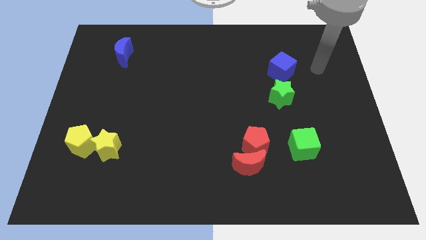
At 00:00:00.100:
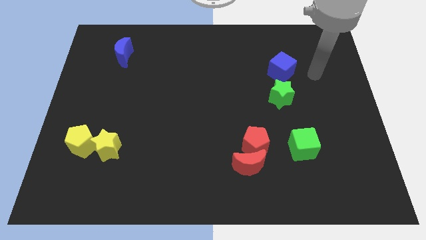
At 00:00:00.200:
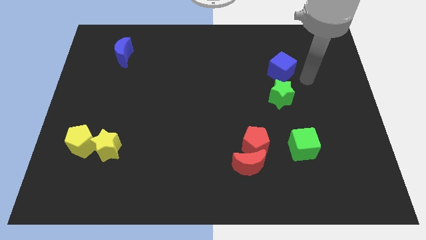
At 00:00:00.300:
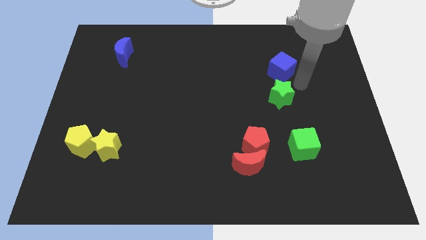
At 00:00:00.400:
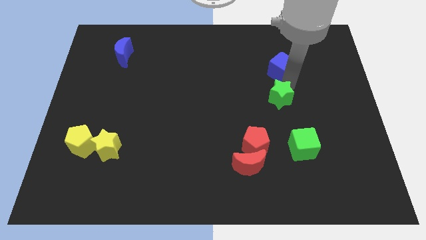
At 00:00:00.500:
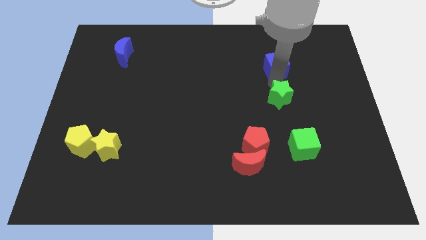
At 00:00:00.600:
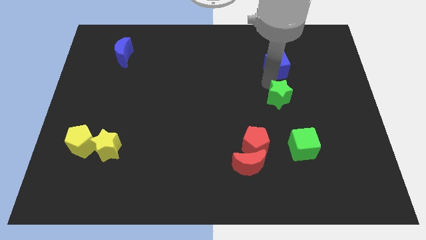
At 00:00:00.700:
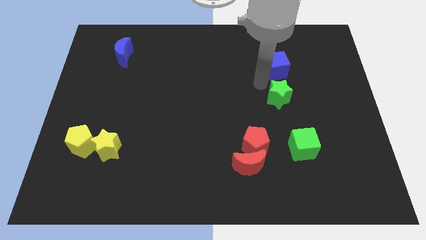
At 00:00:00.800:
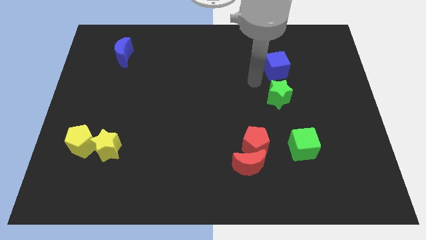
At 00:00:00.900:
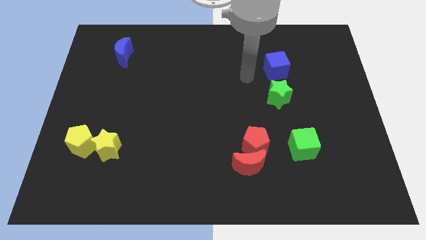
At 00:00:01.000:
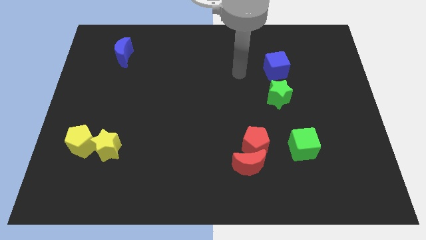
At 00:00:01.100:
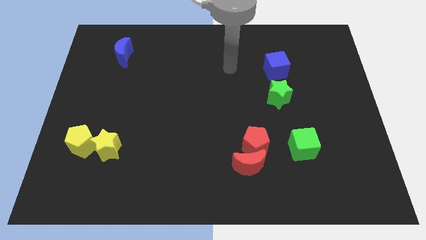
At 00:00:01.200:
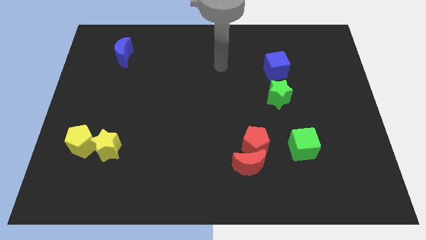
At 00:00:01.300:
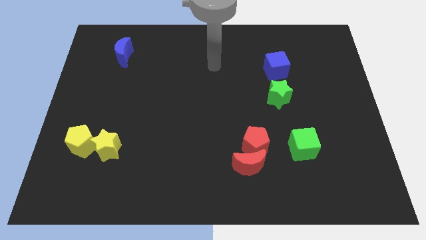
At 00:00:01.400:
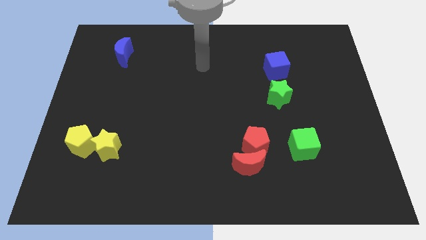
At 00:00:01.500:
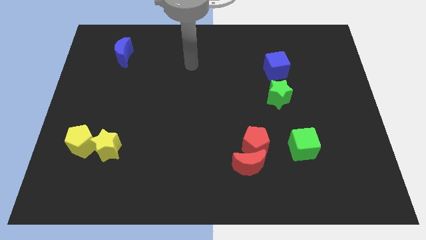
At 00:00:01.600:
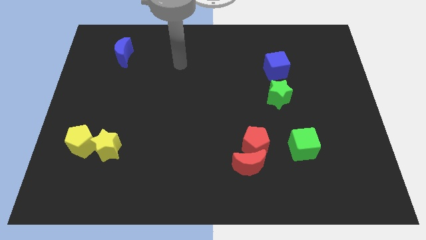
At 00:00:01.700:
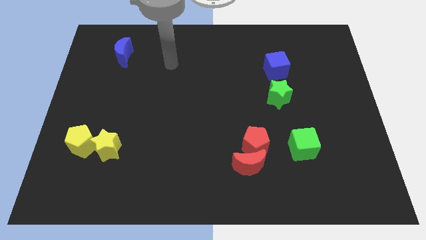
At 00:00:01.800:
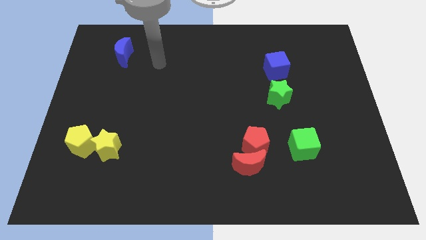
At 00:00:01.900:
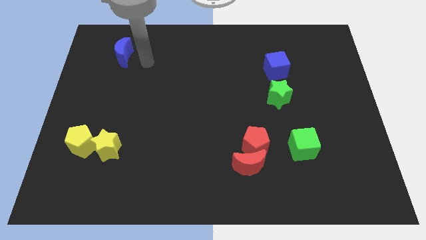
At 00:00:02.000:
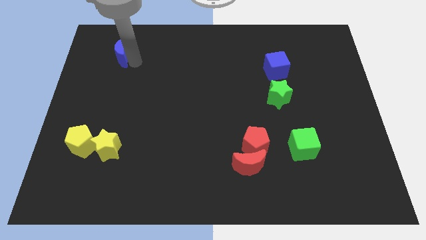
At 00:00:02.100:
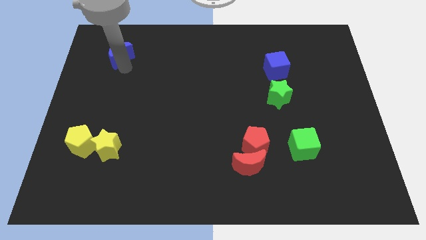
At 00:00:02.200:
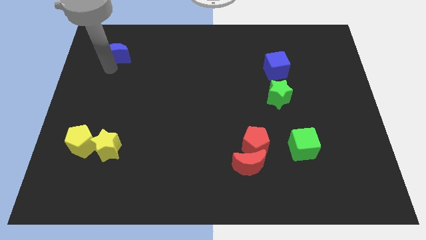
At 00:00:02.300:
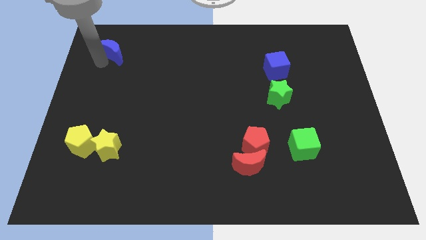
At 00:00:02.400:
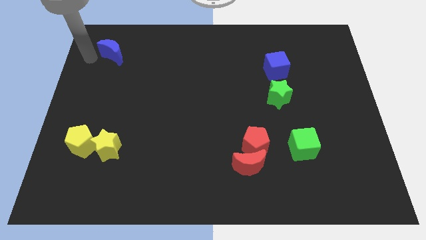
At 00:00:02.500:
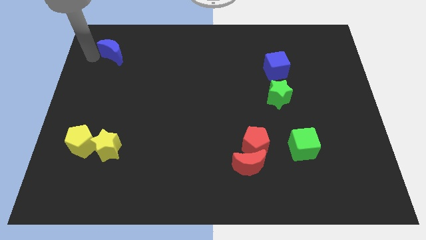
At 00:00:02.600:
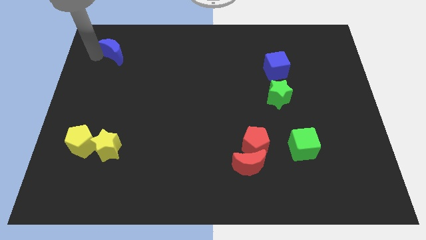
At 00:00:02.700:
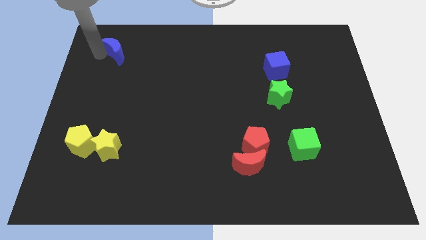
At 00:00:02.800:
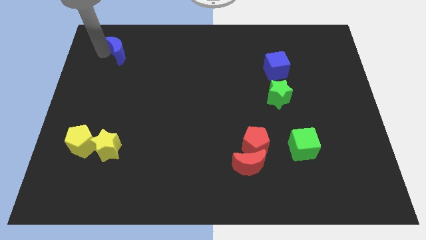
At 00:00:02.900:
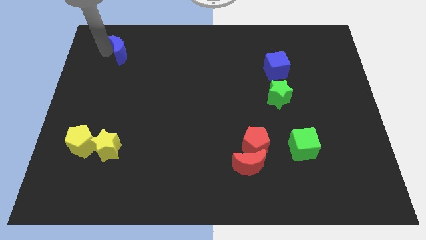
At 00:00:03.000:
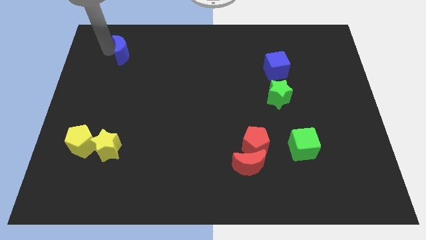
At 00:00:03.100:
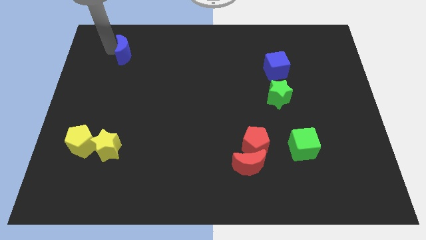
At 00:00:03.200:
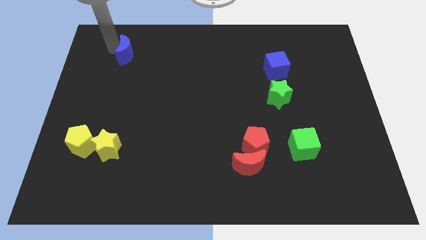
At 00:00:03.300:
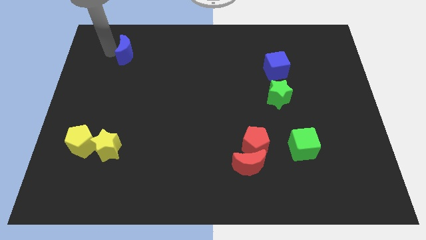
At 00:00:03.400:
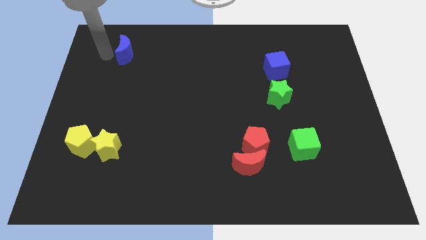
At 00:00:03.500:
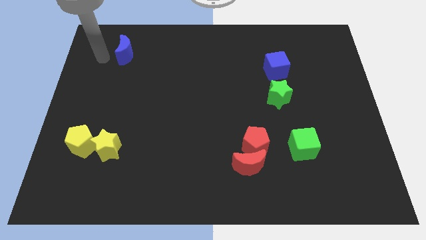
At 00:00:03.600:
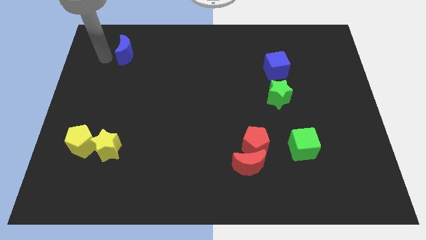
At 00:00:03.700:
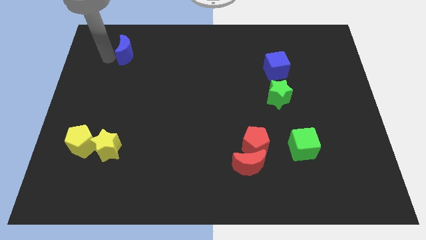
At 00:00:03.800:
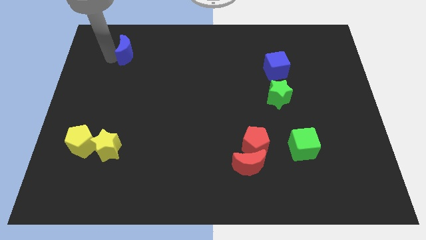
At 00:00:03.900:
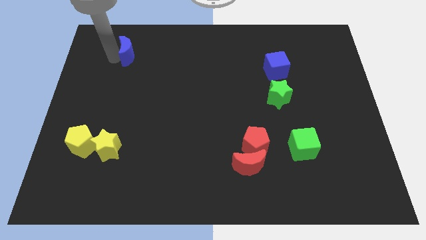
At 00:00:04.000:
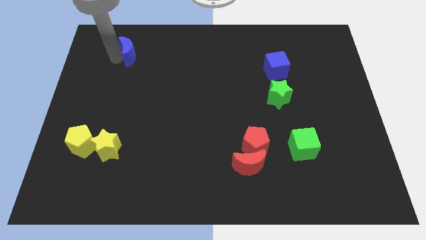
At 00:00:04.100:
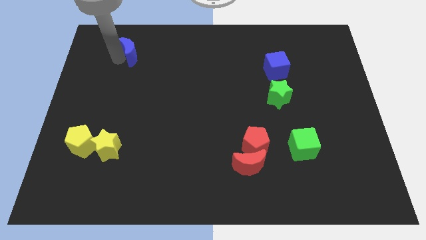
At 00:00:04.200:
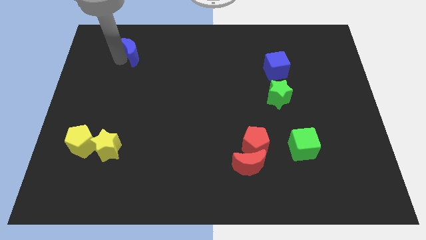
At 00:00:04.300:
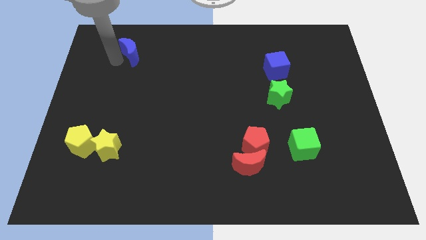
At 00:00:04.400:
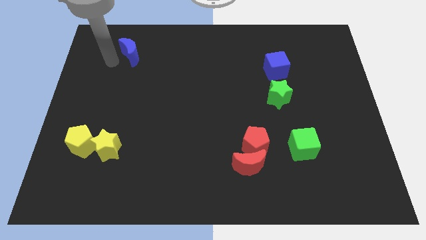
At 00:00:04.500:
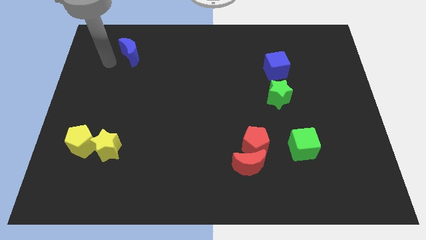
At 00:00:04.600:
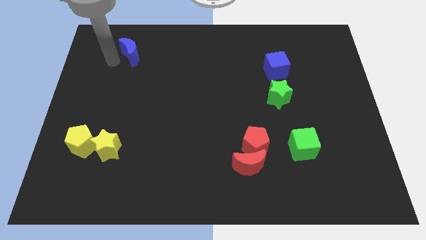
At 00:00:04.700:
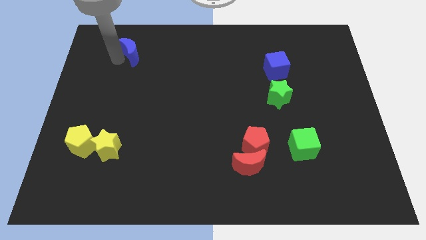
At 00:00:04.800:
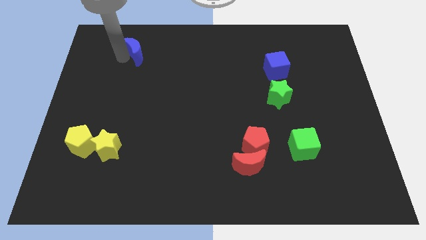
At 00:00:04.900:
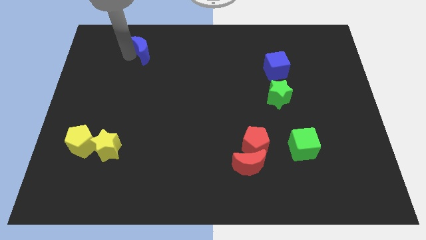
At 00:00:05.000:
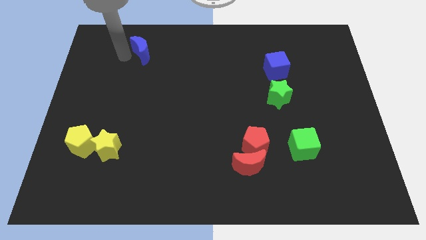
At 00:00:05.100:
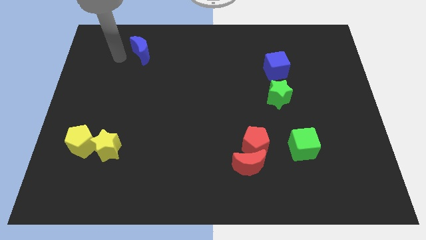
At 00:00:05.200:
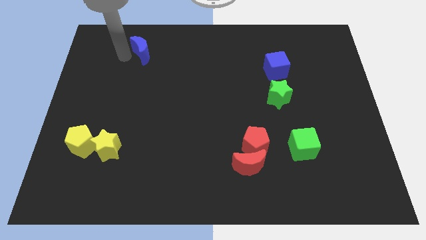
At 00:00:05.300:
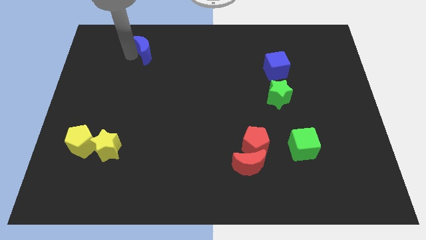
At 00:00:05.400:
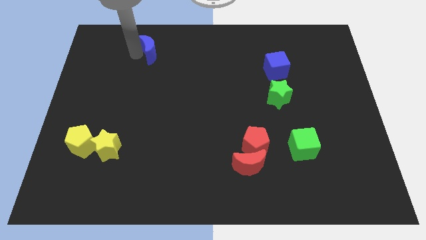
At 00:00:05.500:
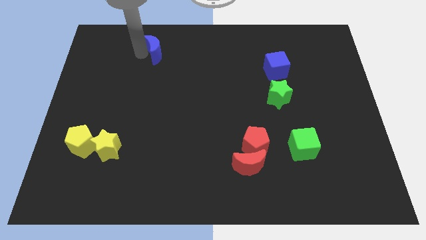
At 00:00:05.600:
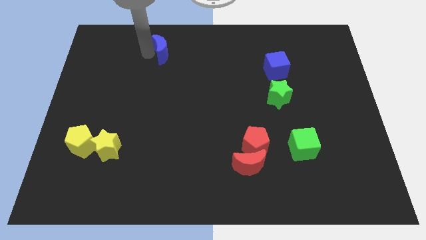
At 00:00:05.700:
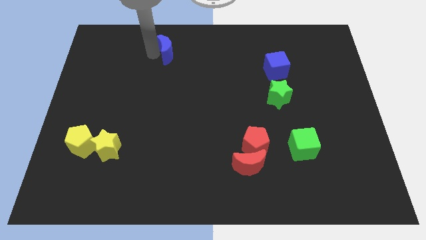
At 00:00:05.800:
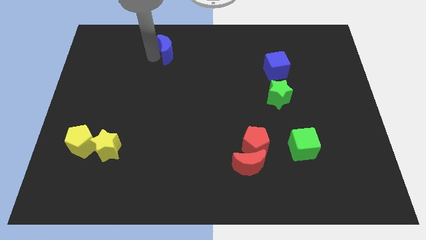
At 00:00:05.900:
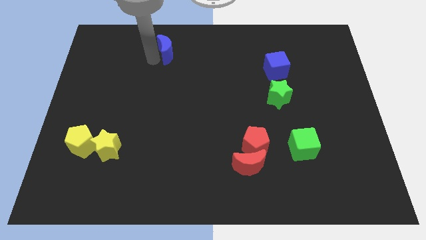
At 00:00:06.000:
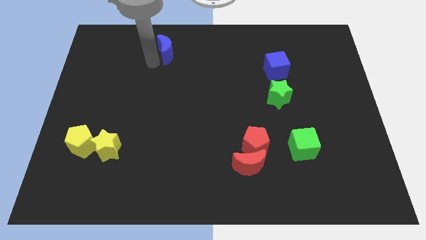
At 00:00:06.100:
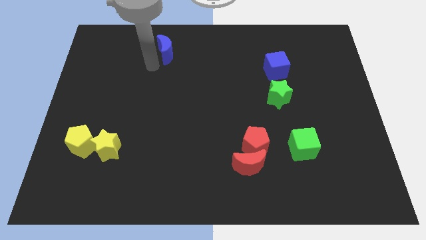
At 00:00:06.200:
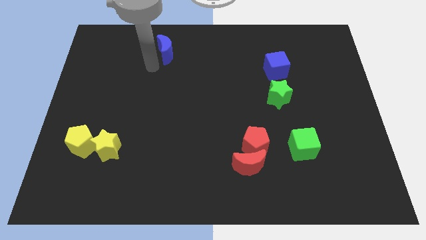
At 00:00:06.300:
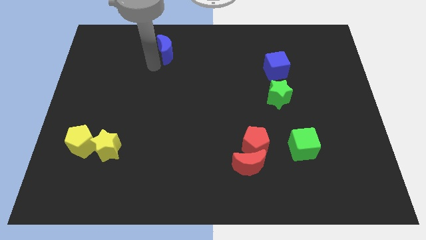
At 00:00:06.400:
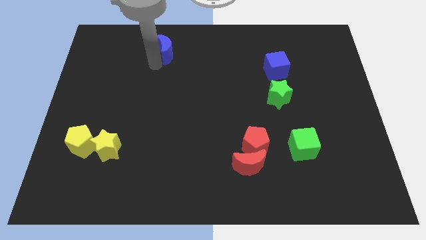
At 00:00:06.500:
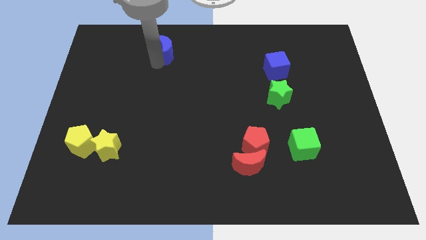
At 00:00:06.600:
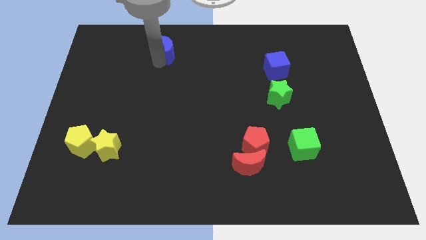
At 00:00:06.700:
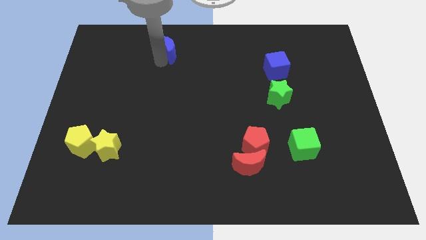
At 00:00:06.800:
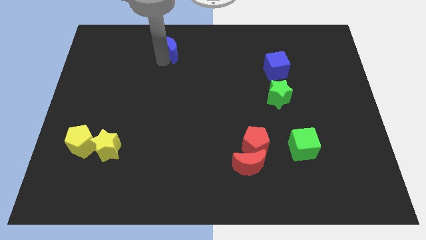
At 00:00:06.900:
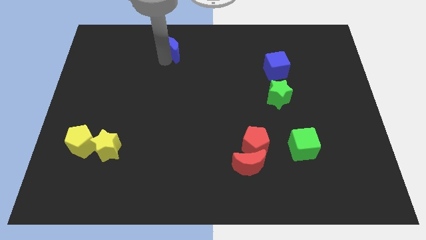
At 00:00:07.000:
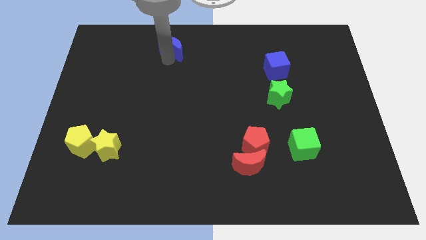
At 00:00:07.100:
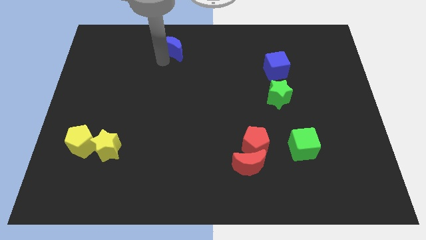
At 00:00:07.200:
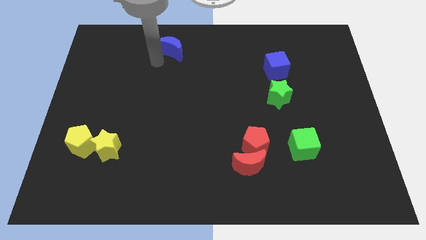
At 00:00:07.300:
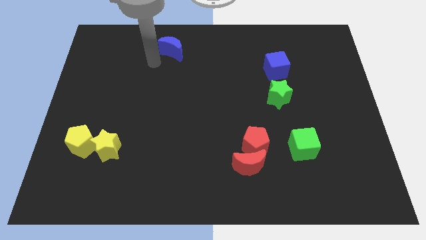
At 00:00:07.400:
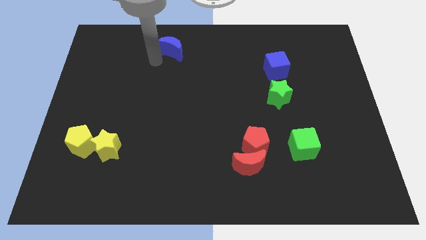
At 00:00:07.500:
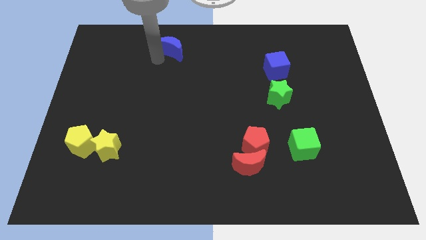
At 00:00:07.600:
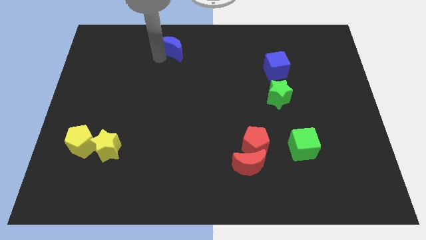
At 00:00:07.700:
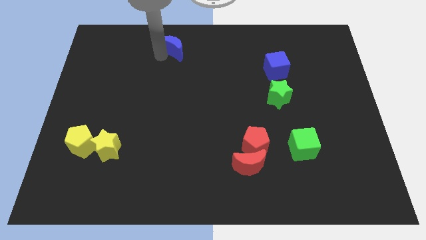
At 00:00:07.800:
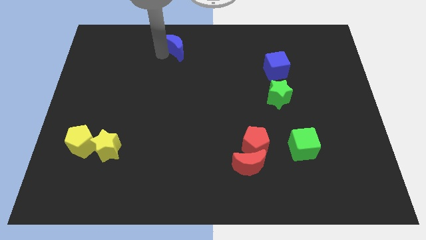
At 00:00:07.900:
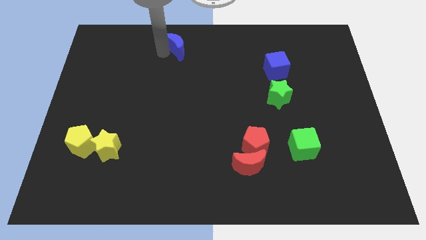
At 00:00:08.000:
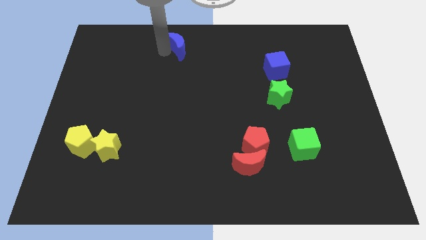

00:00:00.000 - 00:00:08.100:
move the blue moon to the top side

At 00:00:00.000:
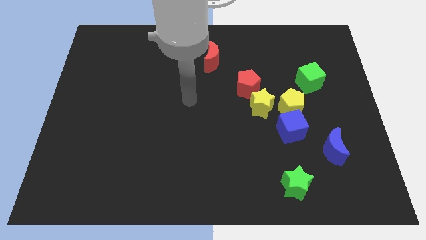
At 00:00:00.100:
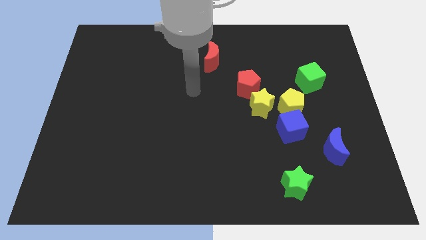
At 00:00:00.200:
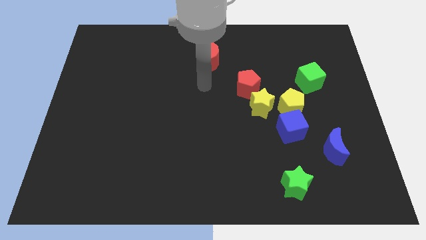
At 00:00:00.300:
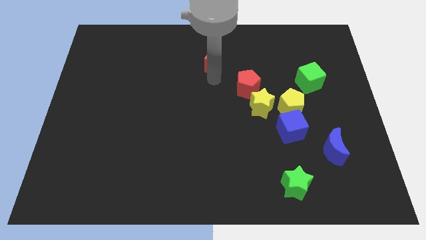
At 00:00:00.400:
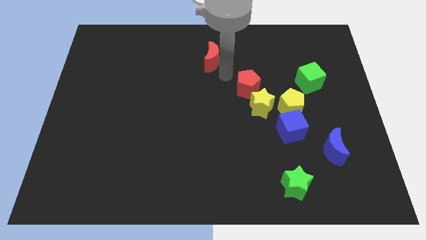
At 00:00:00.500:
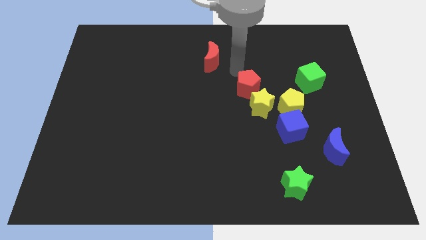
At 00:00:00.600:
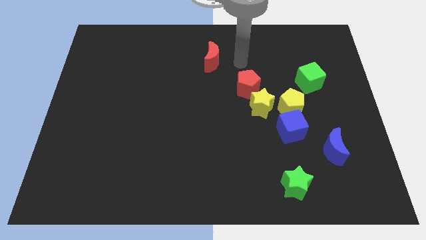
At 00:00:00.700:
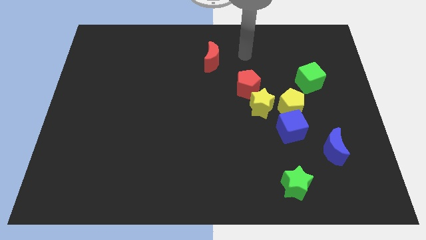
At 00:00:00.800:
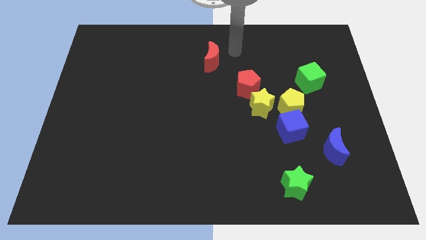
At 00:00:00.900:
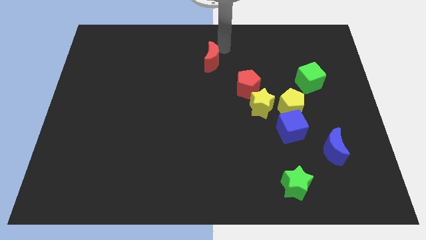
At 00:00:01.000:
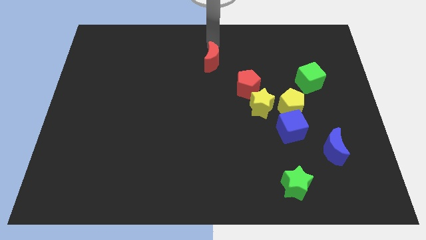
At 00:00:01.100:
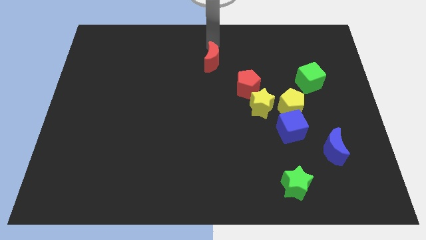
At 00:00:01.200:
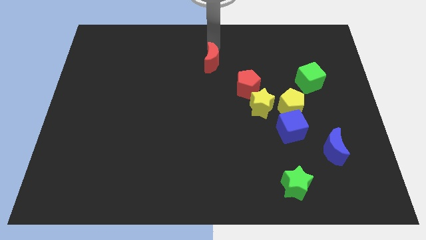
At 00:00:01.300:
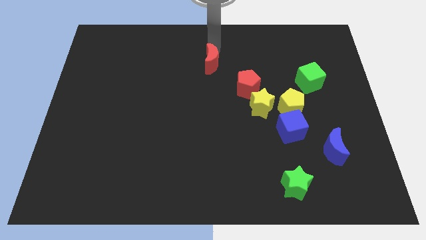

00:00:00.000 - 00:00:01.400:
slide the red moon to the center of the board
